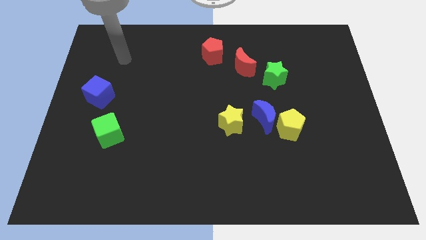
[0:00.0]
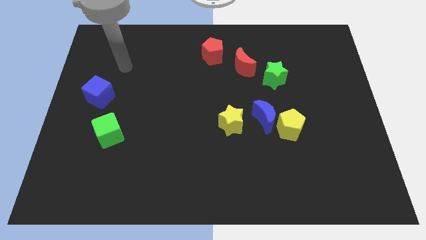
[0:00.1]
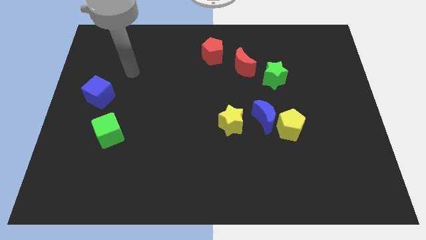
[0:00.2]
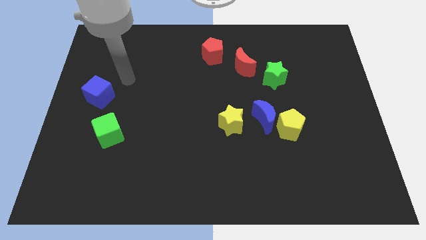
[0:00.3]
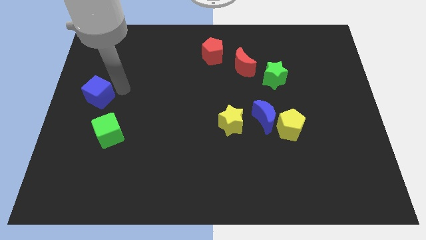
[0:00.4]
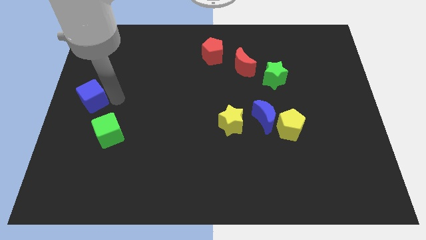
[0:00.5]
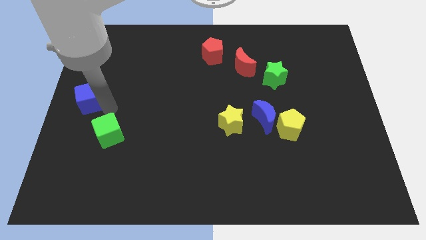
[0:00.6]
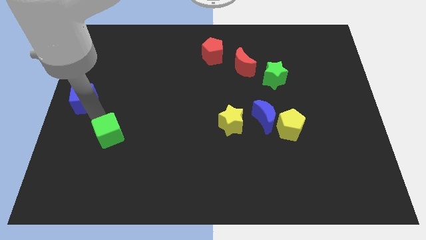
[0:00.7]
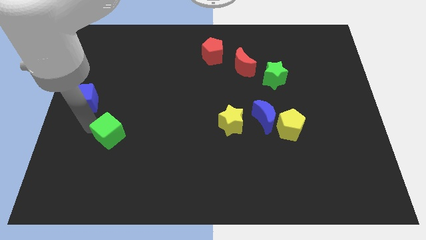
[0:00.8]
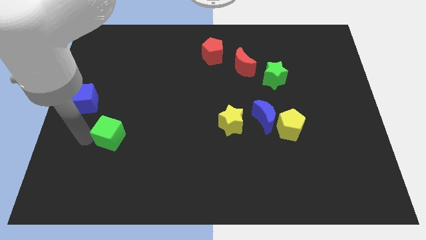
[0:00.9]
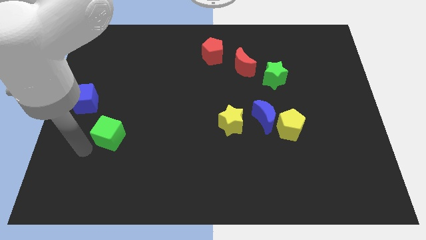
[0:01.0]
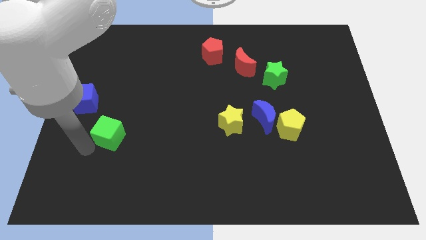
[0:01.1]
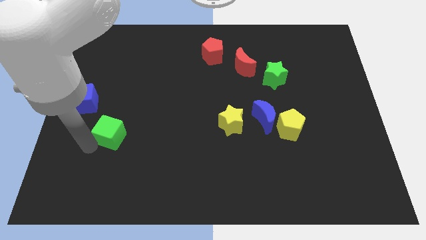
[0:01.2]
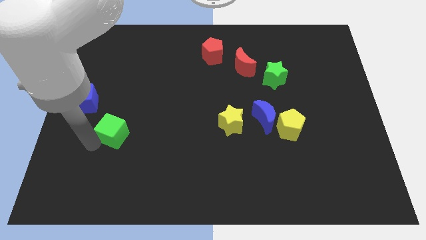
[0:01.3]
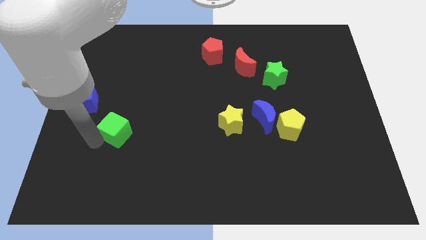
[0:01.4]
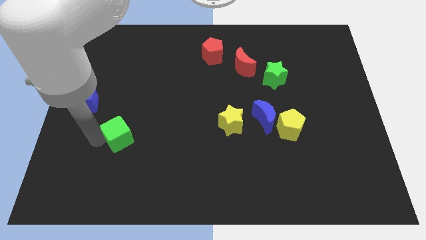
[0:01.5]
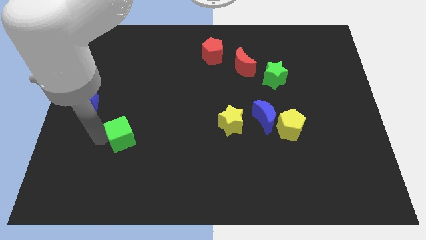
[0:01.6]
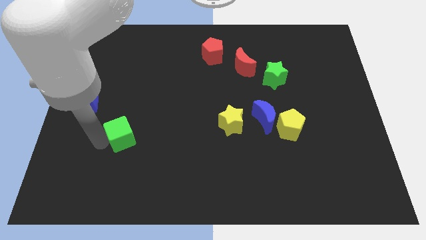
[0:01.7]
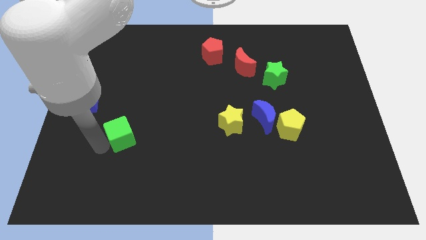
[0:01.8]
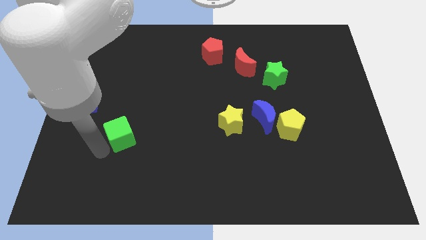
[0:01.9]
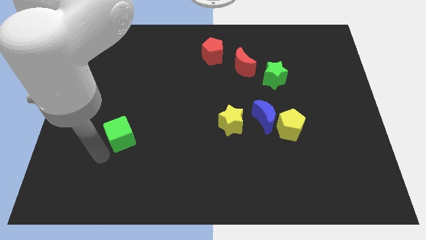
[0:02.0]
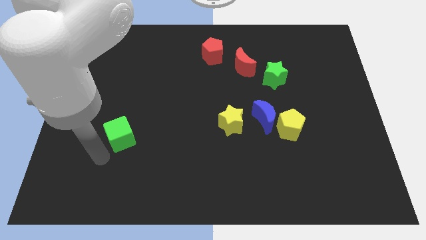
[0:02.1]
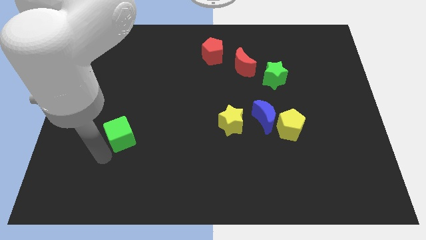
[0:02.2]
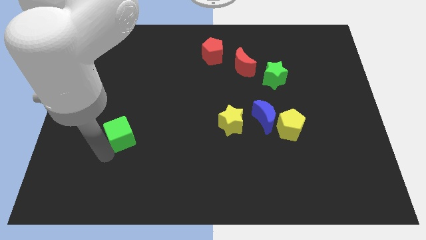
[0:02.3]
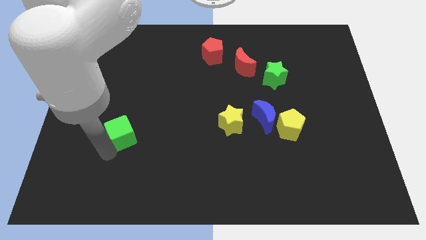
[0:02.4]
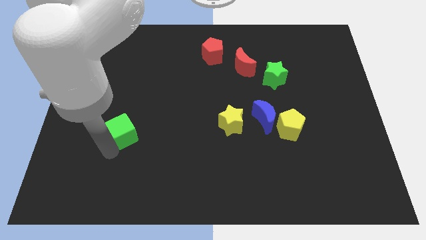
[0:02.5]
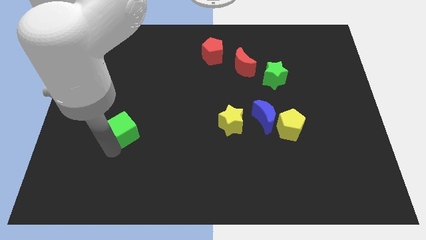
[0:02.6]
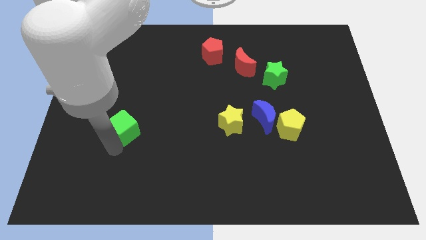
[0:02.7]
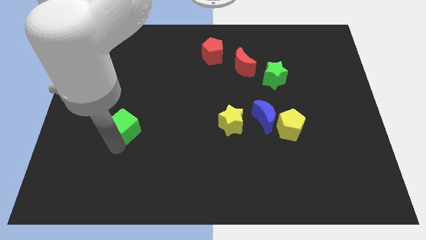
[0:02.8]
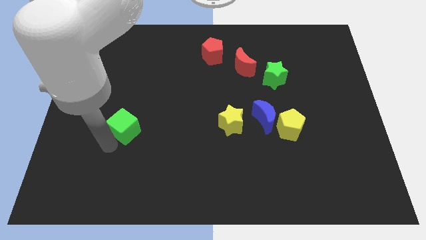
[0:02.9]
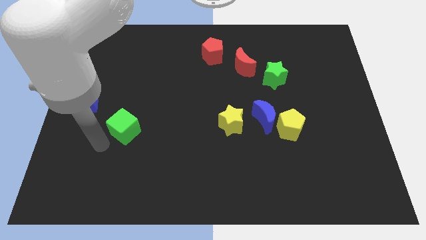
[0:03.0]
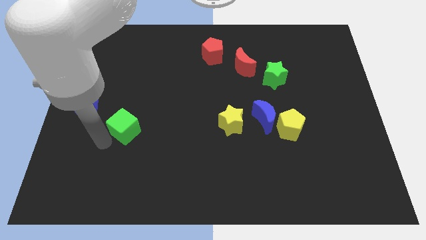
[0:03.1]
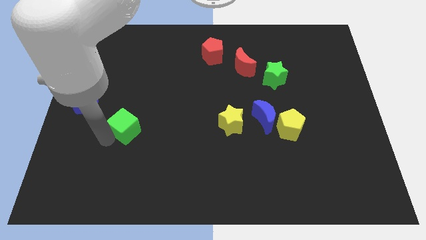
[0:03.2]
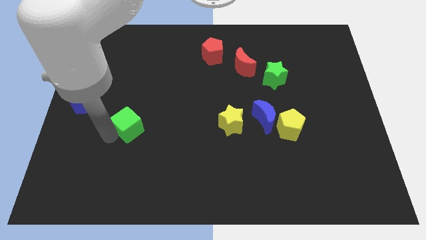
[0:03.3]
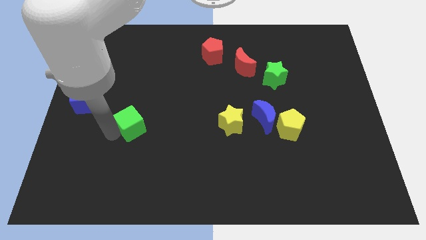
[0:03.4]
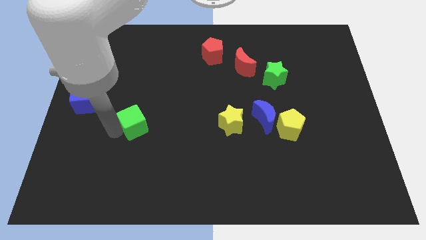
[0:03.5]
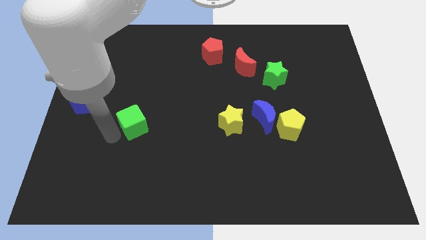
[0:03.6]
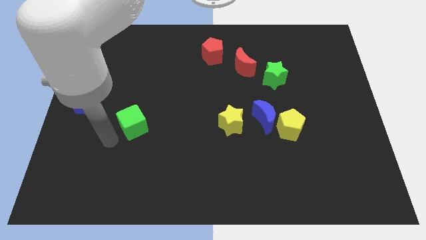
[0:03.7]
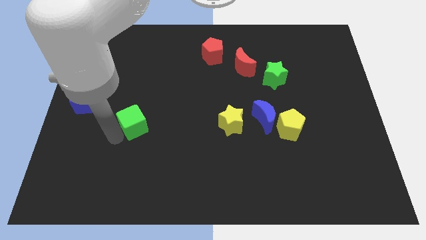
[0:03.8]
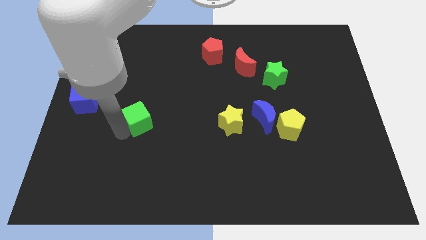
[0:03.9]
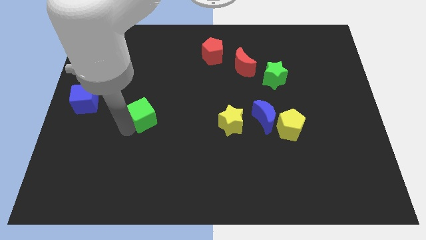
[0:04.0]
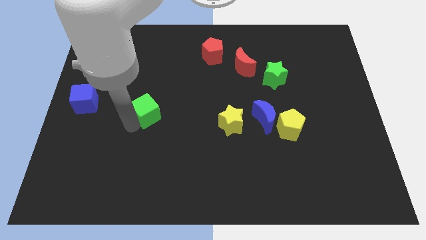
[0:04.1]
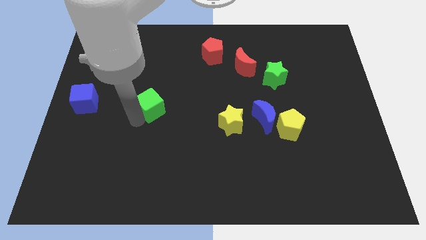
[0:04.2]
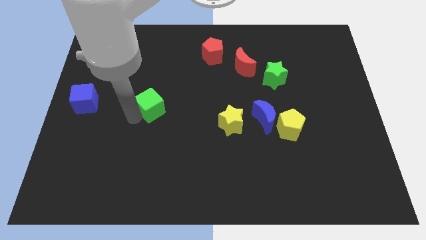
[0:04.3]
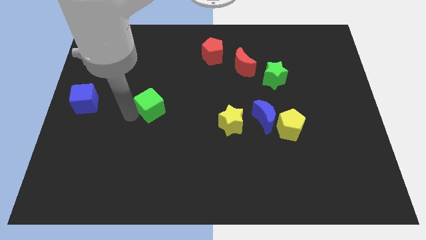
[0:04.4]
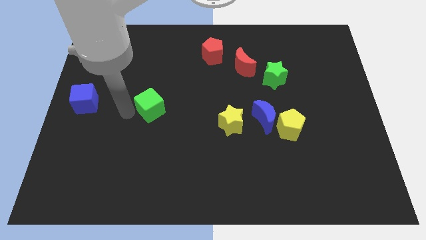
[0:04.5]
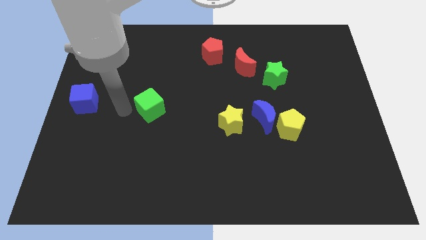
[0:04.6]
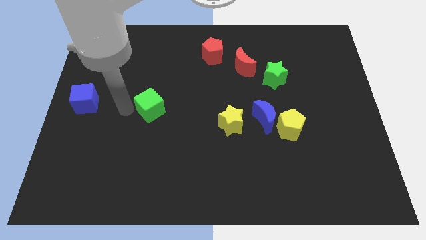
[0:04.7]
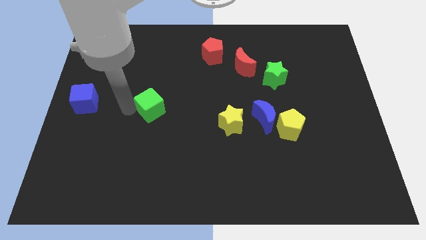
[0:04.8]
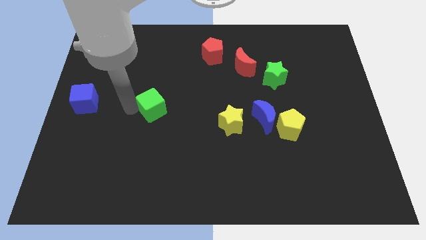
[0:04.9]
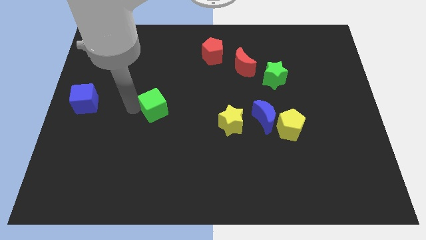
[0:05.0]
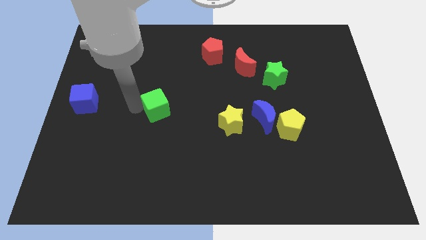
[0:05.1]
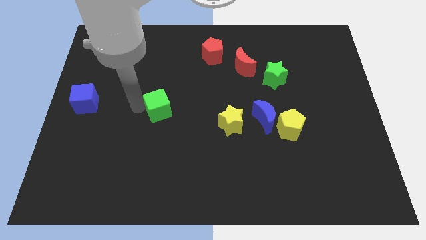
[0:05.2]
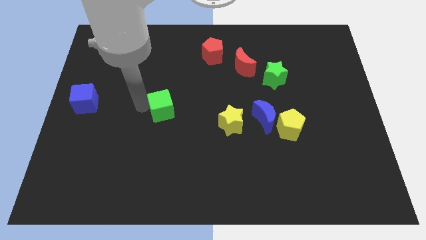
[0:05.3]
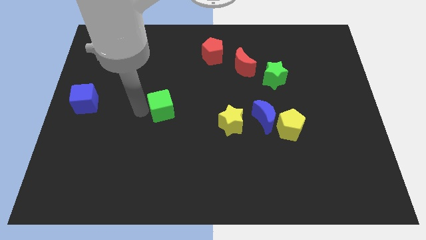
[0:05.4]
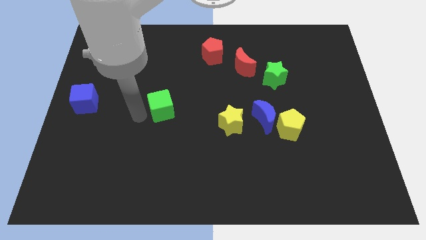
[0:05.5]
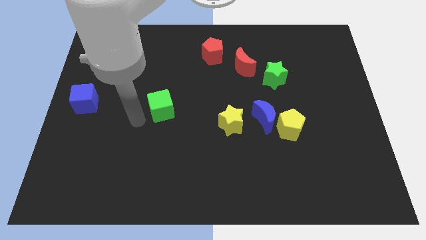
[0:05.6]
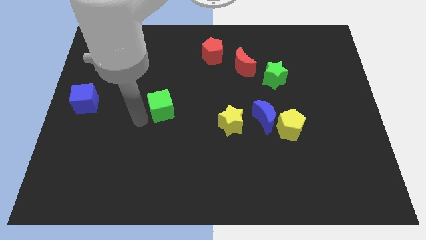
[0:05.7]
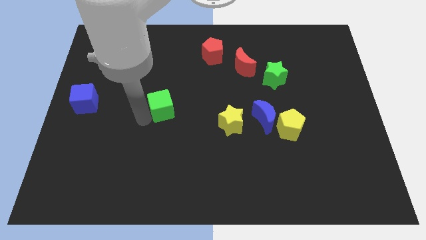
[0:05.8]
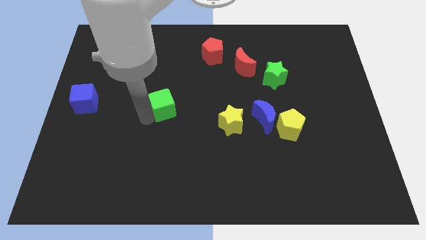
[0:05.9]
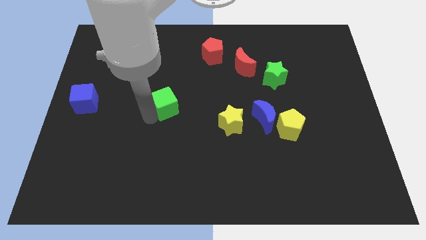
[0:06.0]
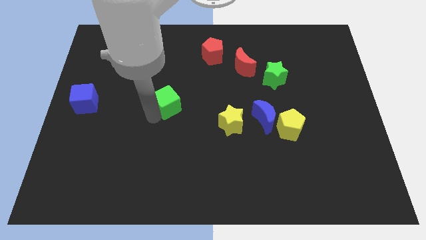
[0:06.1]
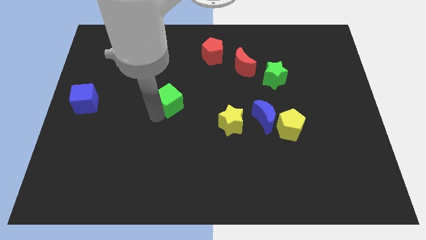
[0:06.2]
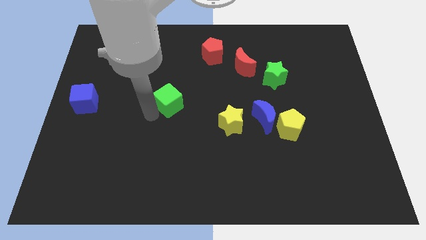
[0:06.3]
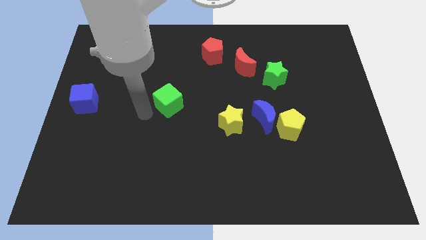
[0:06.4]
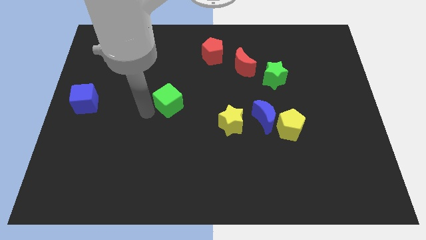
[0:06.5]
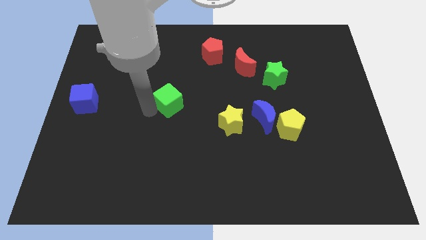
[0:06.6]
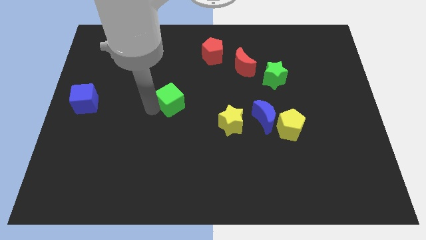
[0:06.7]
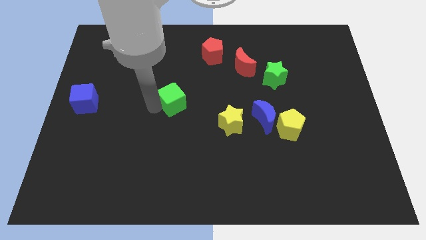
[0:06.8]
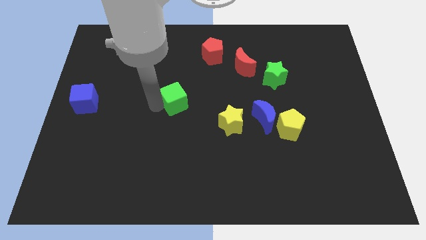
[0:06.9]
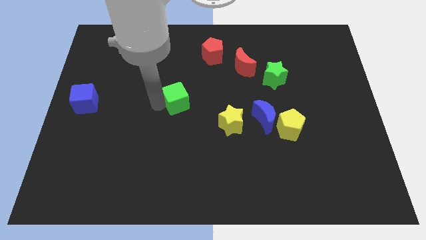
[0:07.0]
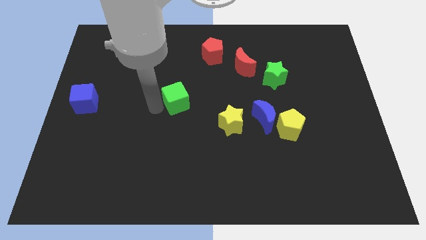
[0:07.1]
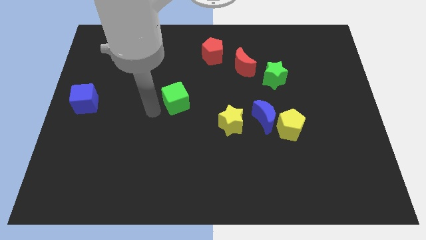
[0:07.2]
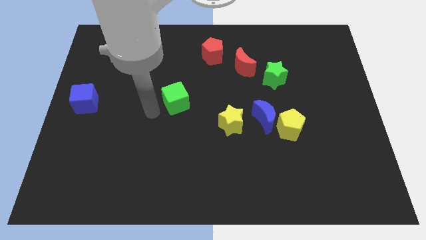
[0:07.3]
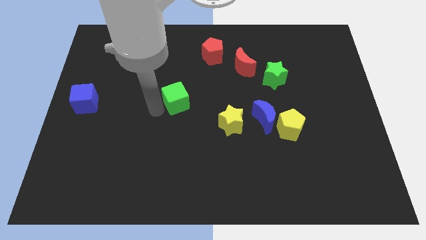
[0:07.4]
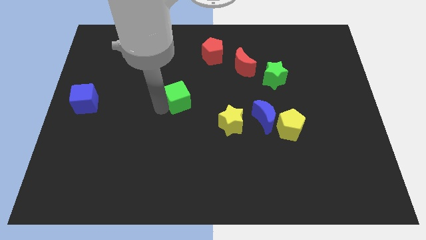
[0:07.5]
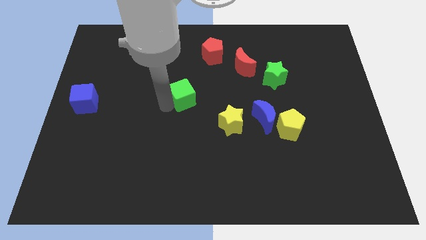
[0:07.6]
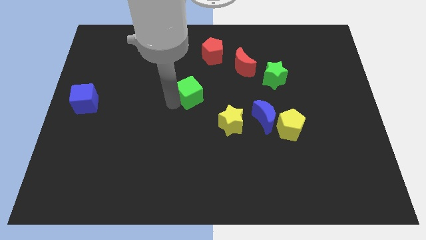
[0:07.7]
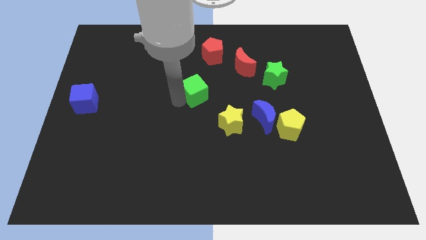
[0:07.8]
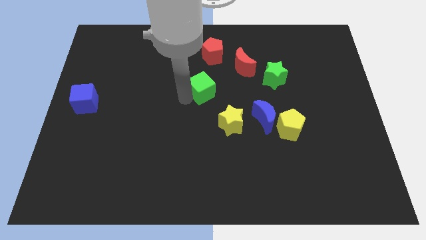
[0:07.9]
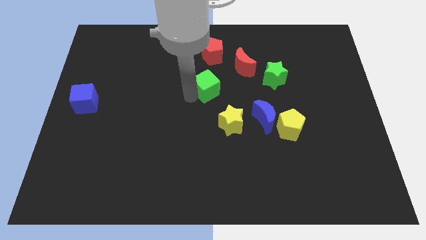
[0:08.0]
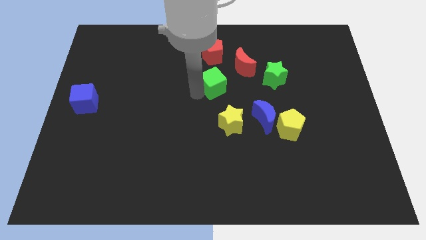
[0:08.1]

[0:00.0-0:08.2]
move the green cube left of the green star
